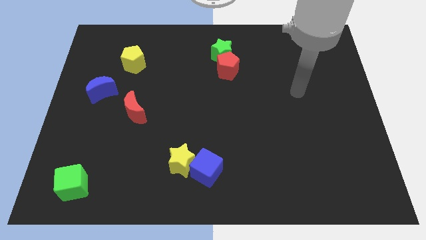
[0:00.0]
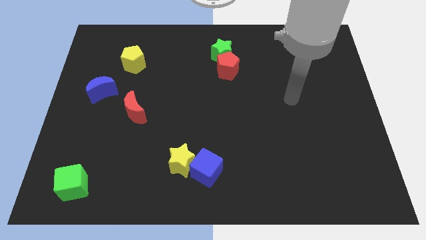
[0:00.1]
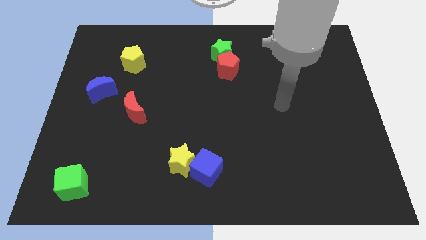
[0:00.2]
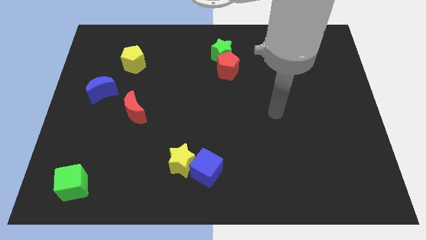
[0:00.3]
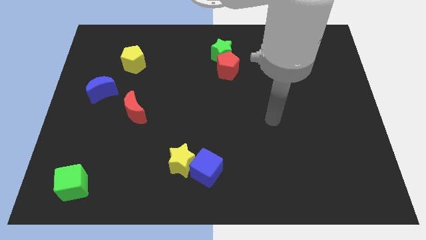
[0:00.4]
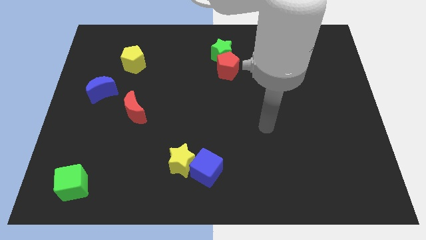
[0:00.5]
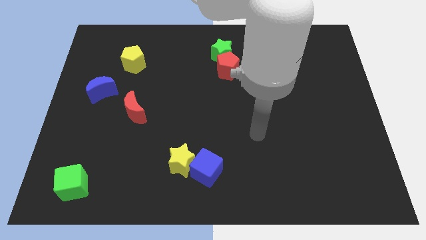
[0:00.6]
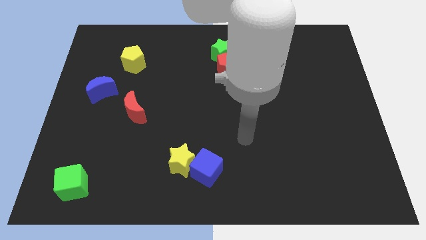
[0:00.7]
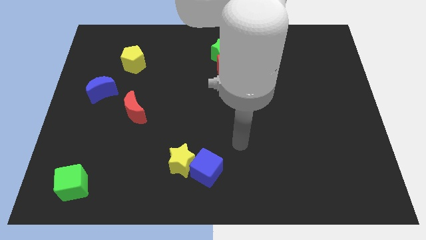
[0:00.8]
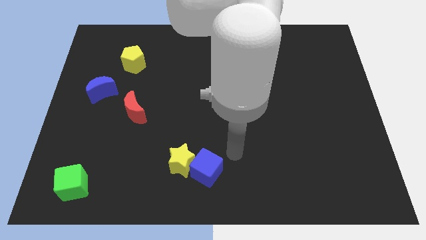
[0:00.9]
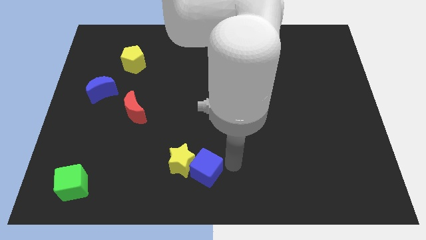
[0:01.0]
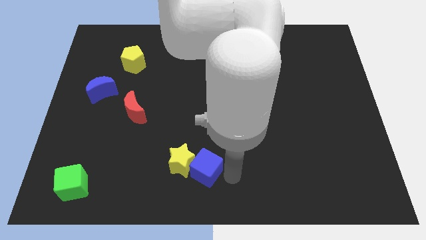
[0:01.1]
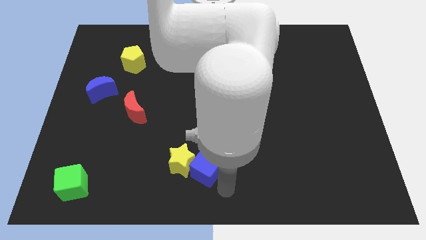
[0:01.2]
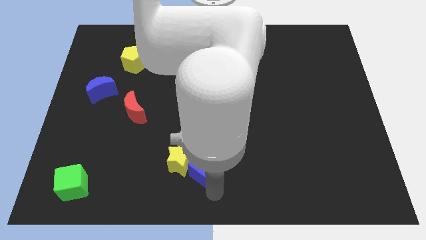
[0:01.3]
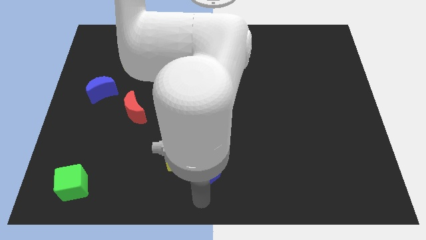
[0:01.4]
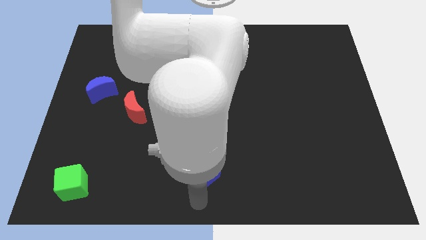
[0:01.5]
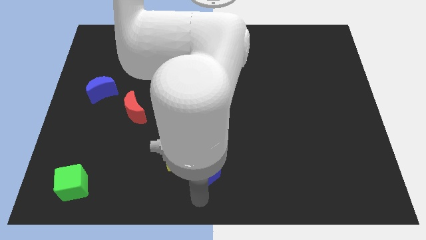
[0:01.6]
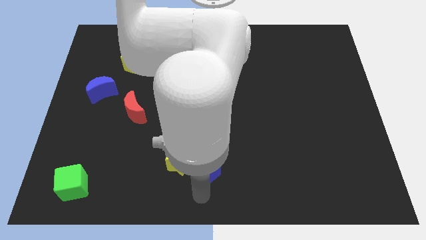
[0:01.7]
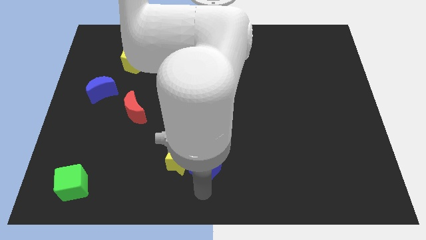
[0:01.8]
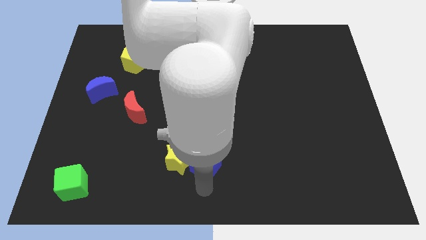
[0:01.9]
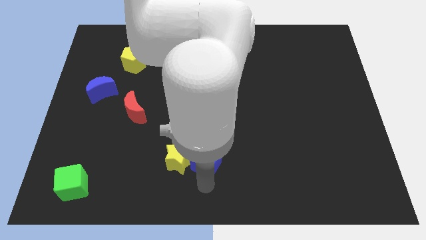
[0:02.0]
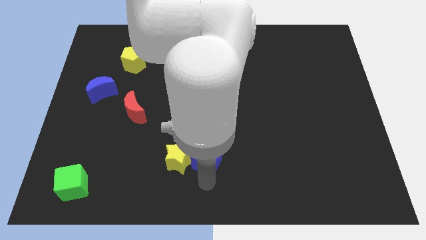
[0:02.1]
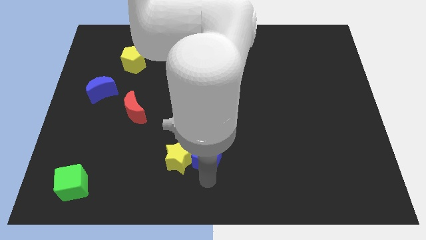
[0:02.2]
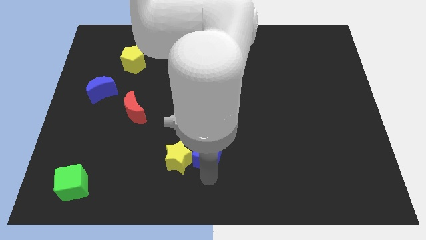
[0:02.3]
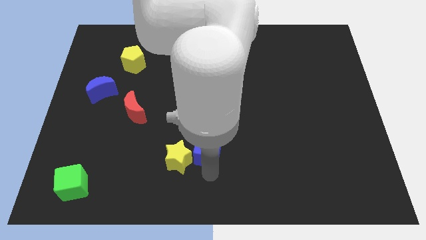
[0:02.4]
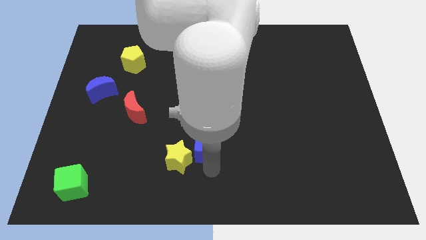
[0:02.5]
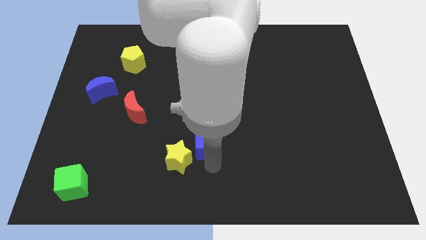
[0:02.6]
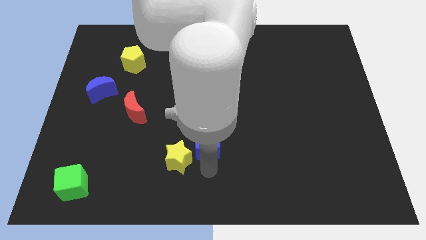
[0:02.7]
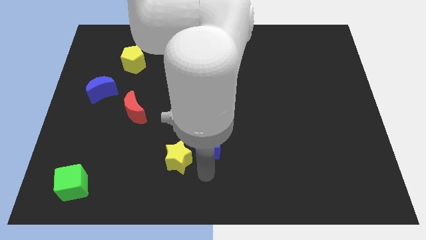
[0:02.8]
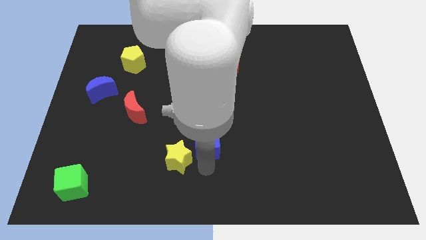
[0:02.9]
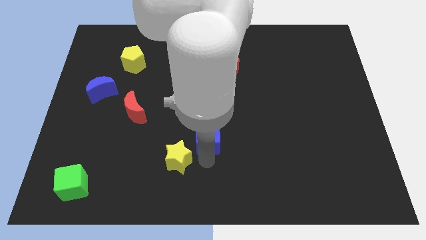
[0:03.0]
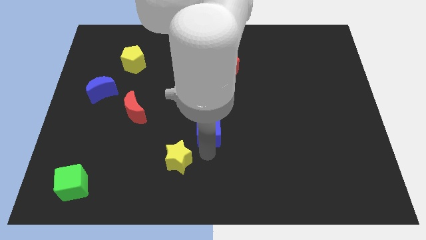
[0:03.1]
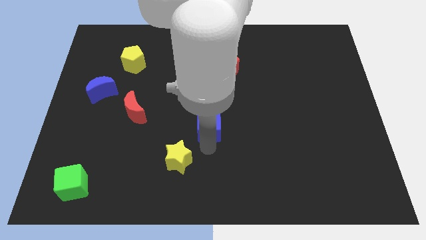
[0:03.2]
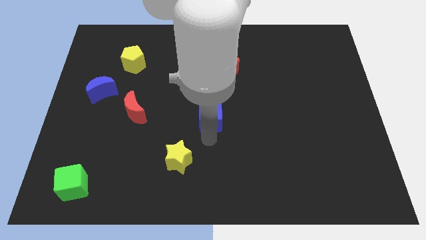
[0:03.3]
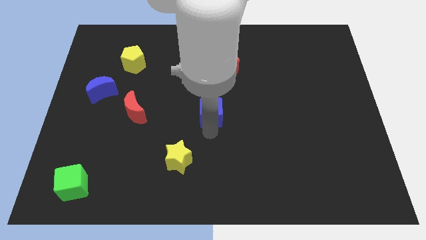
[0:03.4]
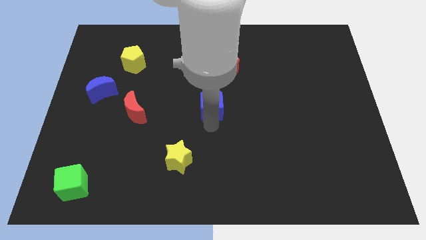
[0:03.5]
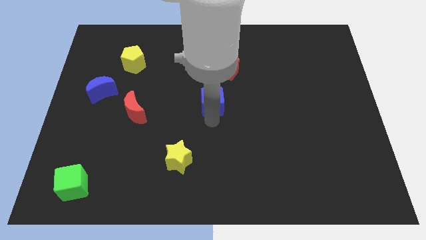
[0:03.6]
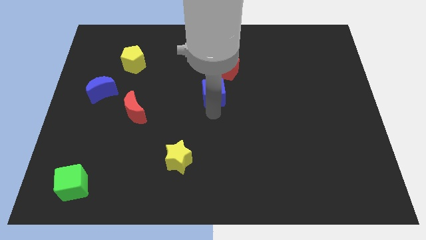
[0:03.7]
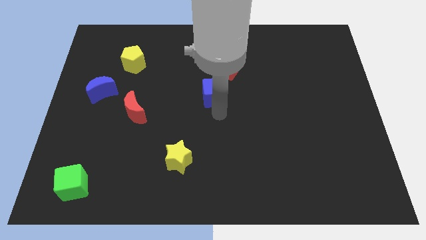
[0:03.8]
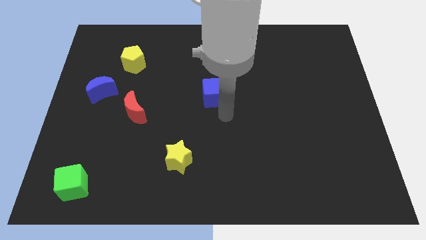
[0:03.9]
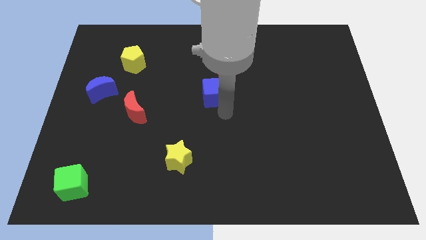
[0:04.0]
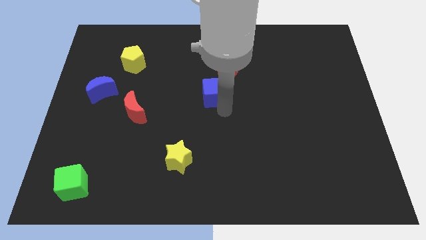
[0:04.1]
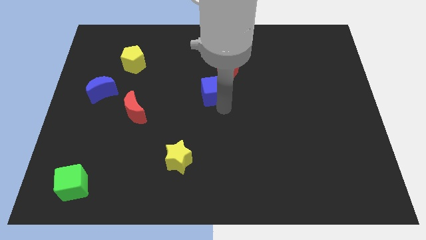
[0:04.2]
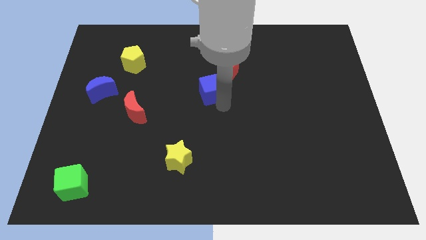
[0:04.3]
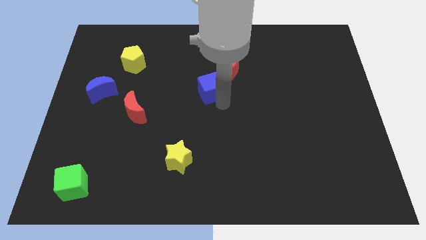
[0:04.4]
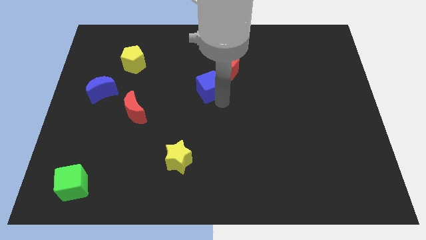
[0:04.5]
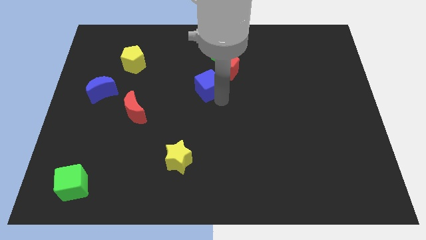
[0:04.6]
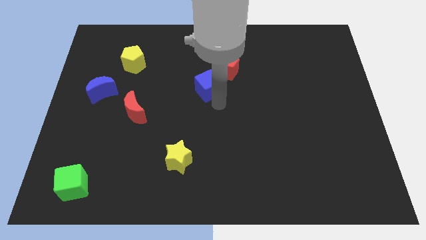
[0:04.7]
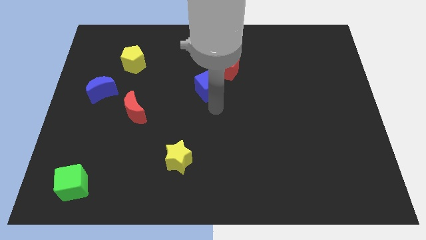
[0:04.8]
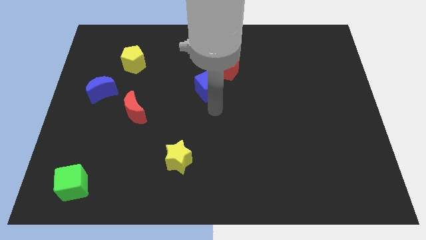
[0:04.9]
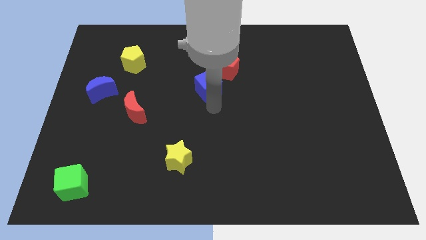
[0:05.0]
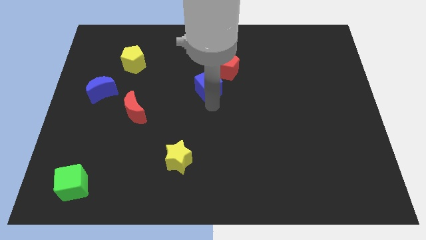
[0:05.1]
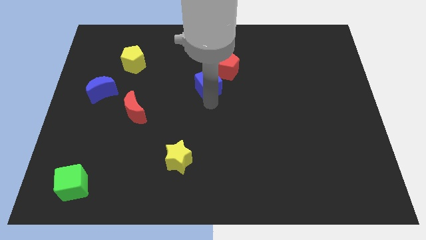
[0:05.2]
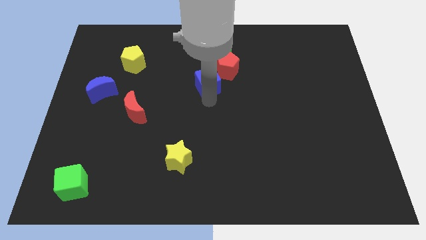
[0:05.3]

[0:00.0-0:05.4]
slide the blue cube diagonally down and to the left of the green star

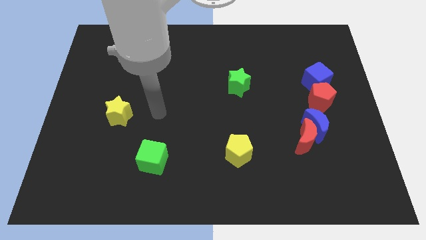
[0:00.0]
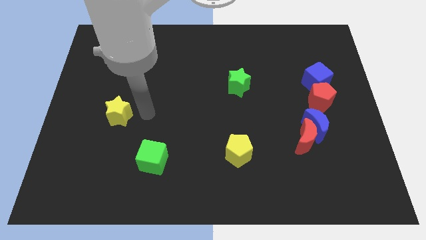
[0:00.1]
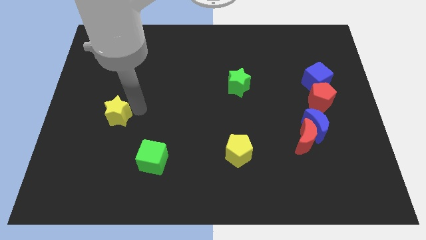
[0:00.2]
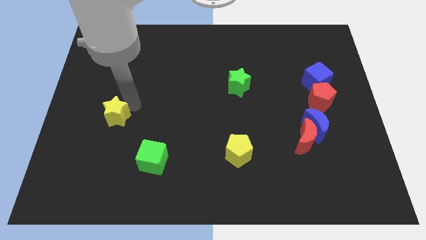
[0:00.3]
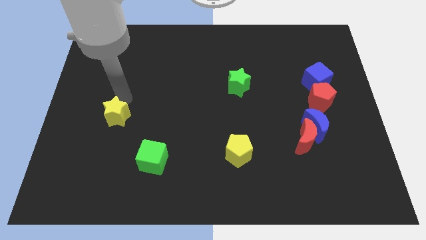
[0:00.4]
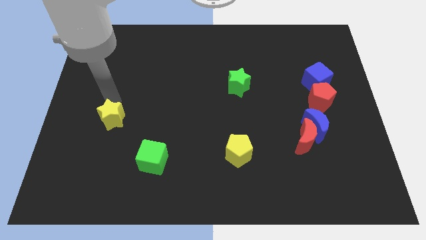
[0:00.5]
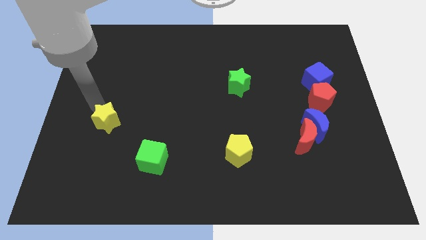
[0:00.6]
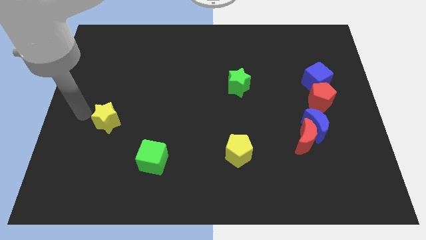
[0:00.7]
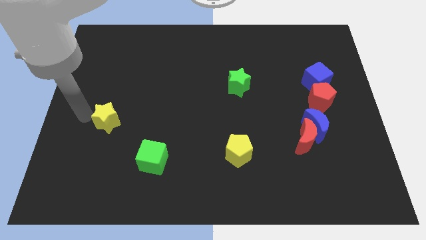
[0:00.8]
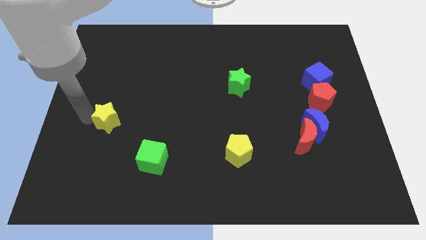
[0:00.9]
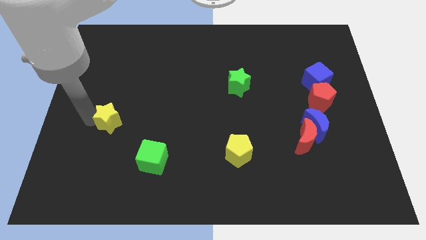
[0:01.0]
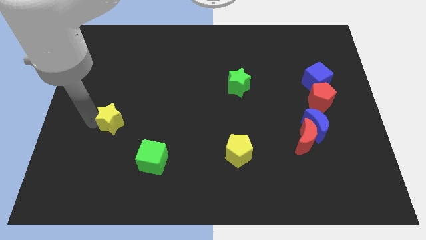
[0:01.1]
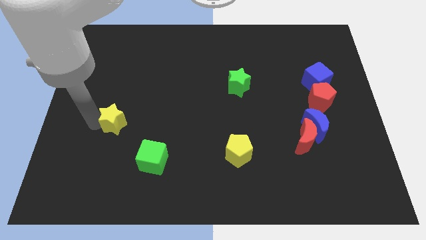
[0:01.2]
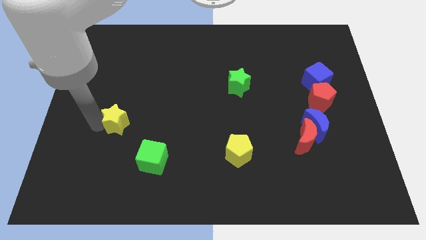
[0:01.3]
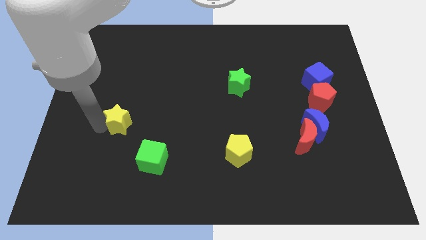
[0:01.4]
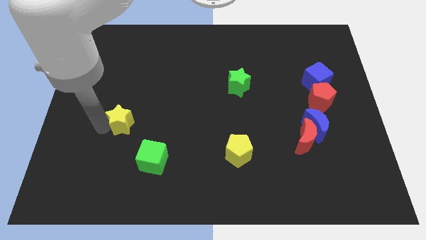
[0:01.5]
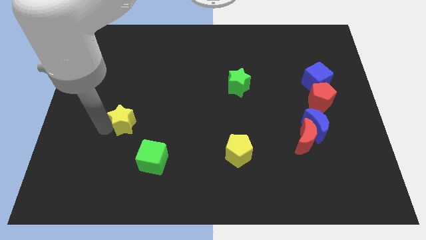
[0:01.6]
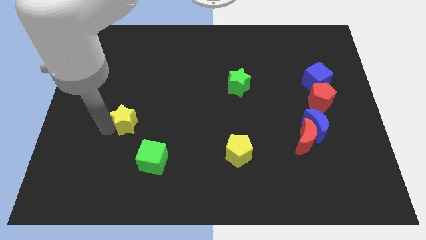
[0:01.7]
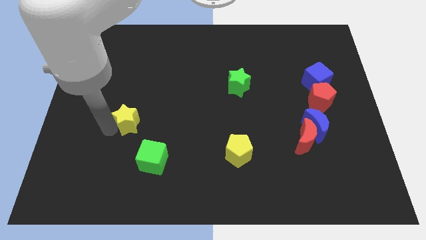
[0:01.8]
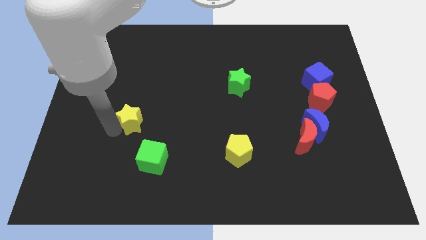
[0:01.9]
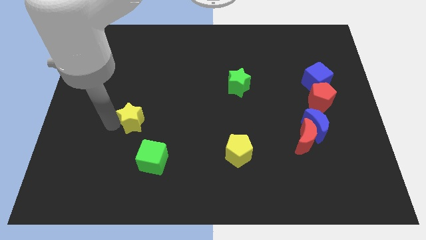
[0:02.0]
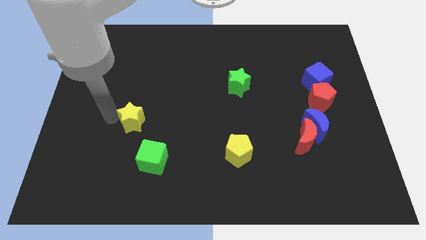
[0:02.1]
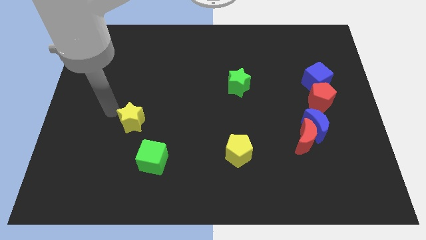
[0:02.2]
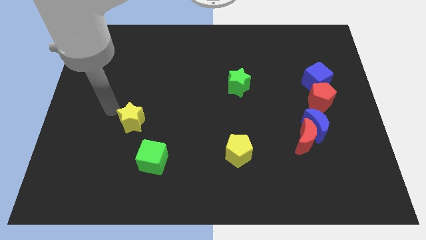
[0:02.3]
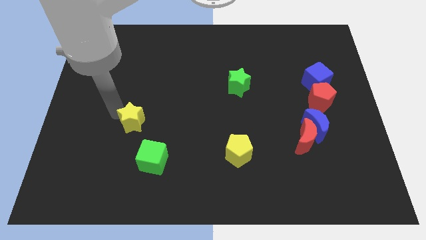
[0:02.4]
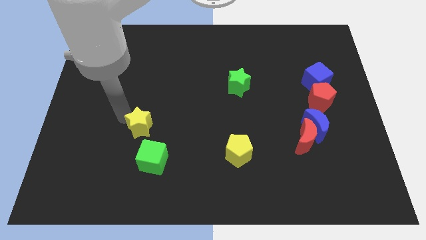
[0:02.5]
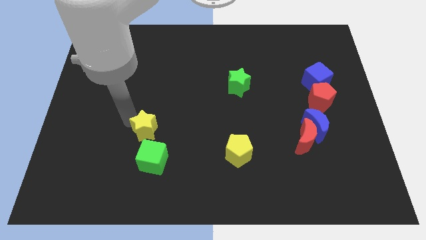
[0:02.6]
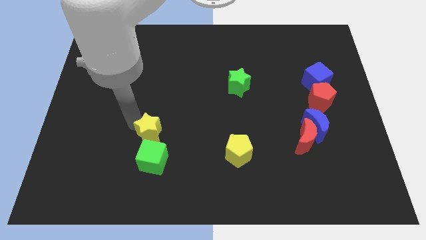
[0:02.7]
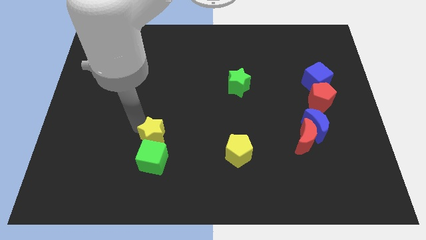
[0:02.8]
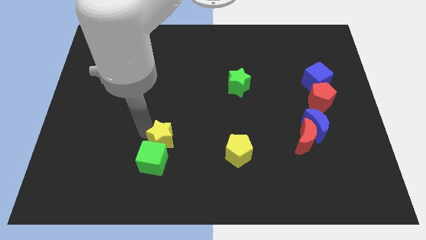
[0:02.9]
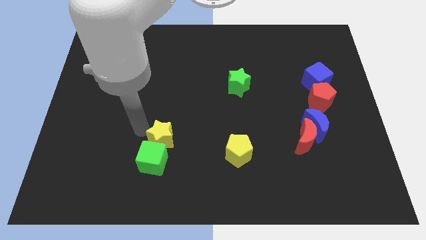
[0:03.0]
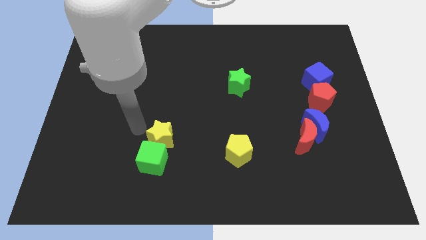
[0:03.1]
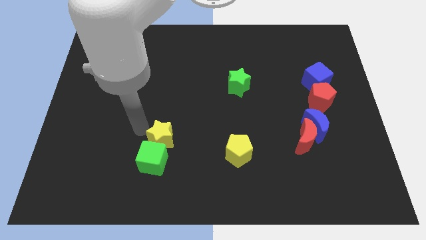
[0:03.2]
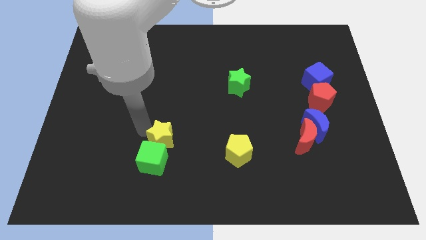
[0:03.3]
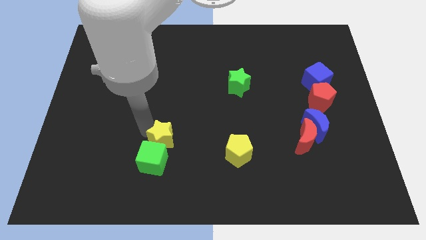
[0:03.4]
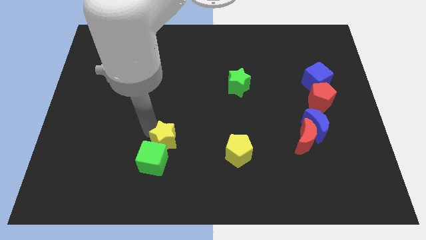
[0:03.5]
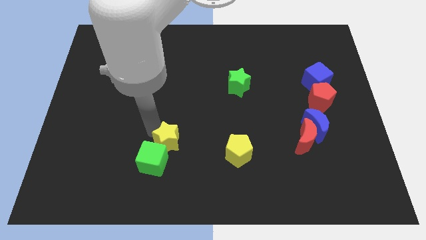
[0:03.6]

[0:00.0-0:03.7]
move the yellow star left of the yellow pentagon
